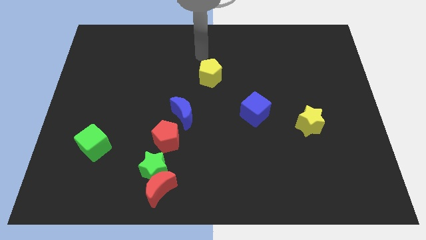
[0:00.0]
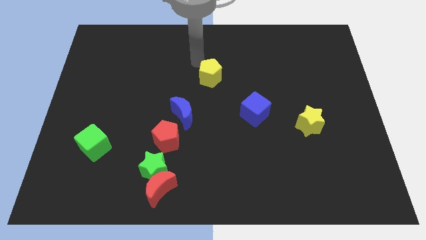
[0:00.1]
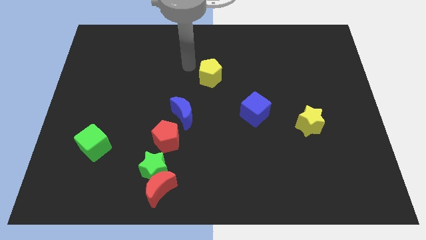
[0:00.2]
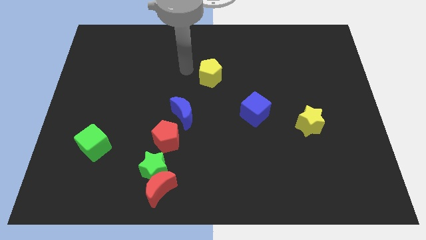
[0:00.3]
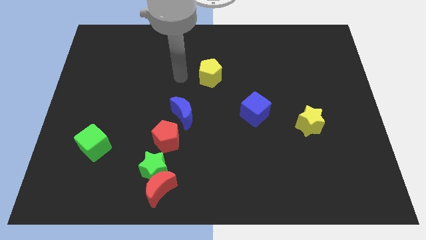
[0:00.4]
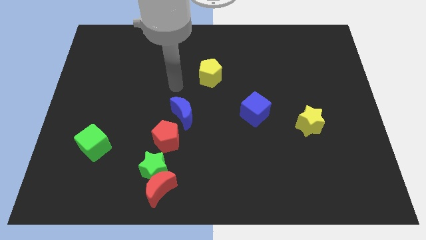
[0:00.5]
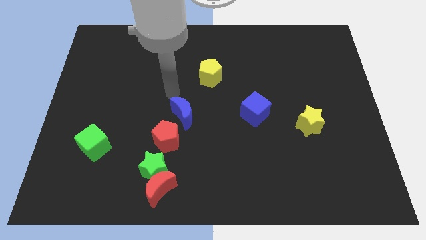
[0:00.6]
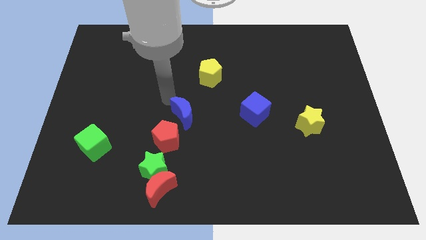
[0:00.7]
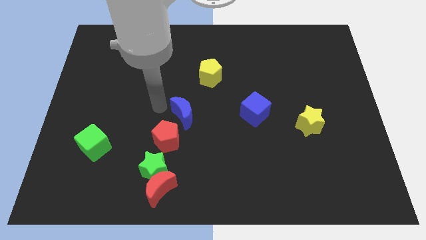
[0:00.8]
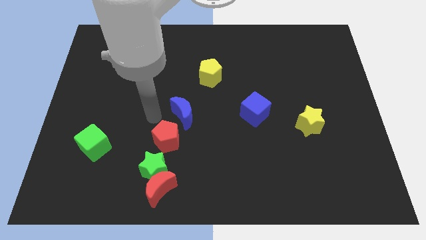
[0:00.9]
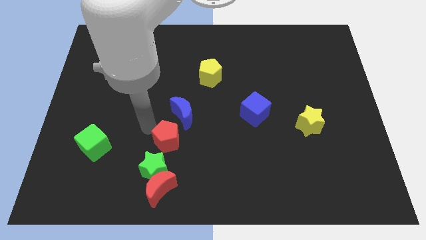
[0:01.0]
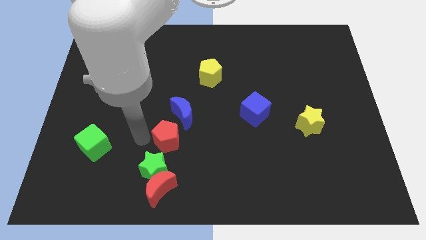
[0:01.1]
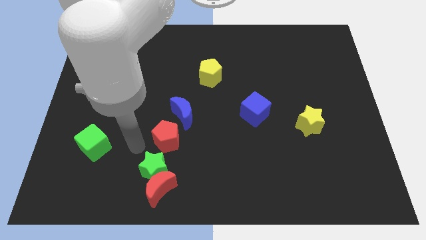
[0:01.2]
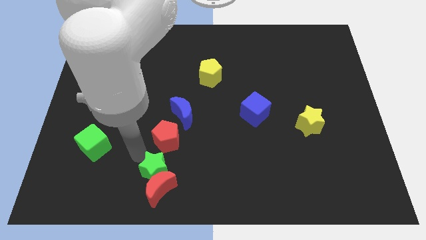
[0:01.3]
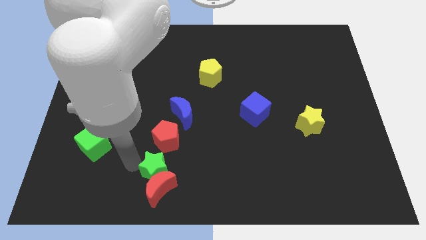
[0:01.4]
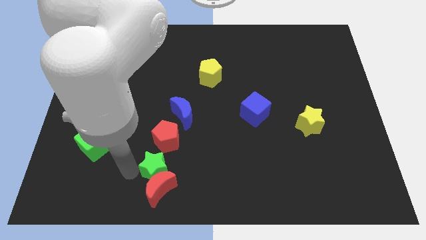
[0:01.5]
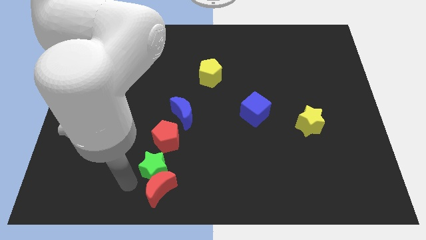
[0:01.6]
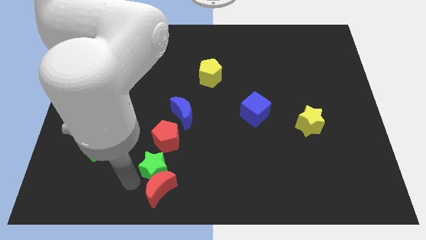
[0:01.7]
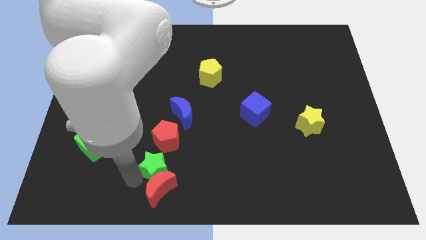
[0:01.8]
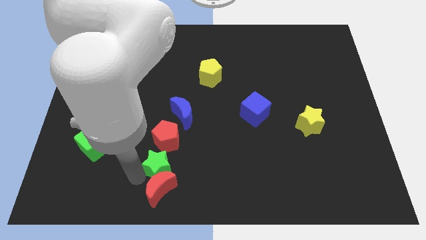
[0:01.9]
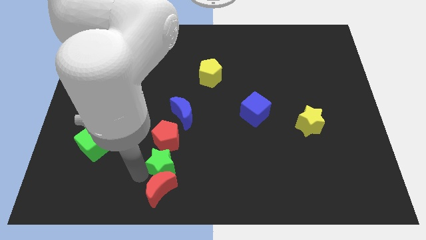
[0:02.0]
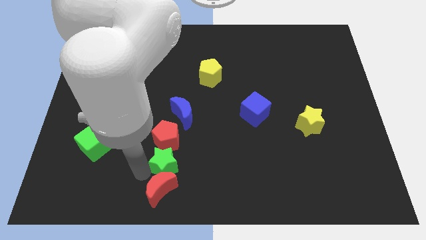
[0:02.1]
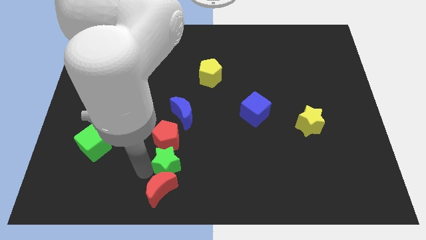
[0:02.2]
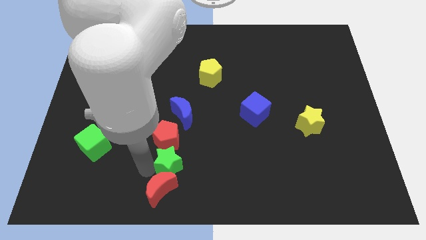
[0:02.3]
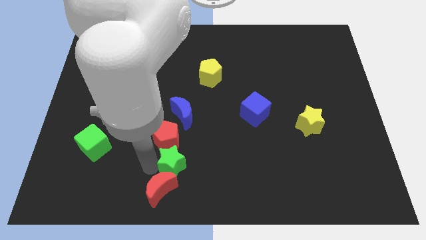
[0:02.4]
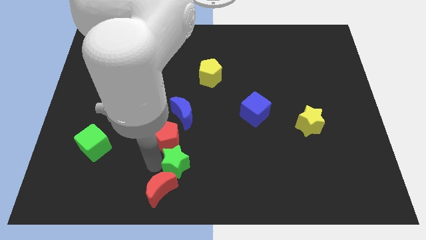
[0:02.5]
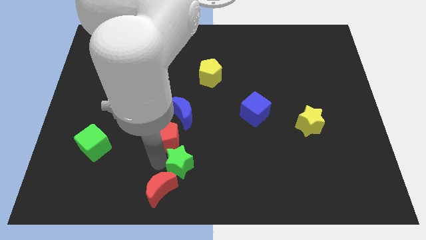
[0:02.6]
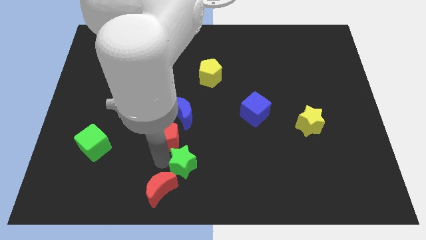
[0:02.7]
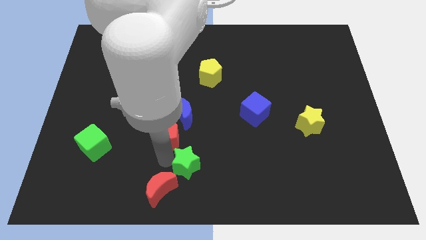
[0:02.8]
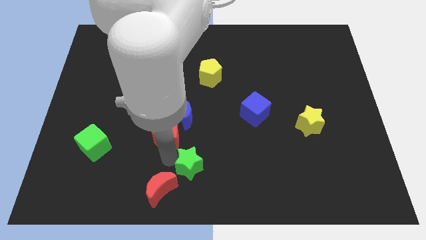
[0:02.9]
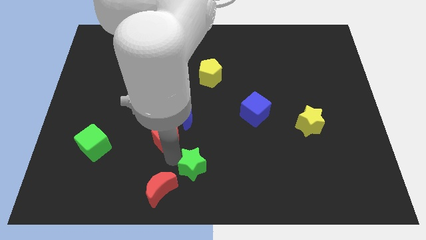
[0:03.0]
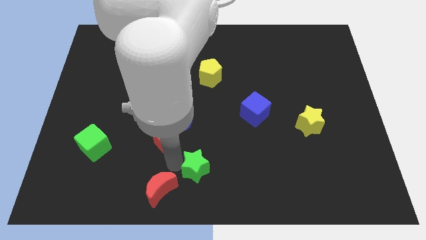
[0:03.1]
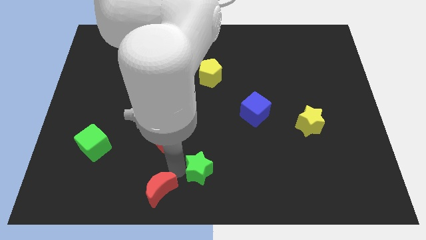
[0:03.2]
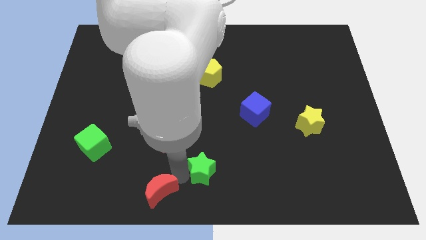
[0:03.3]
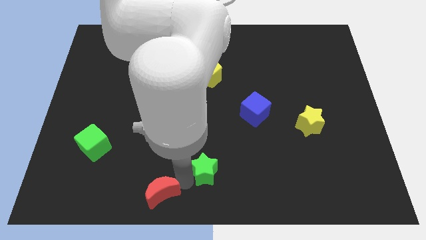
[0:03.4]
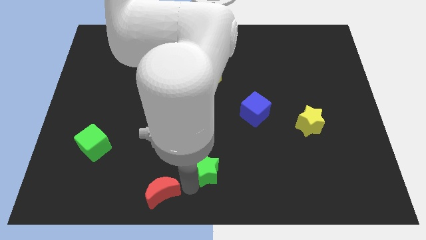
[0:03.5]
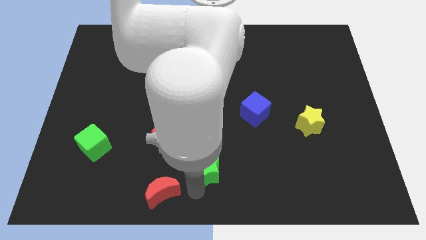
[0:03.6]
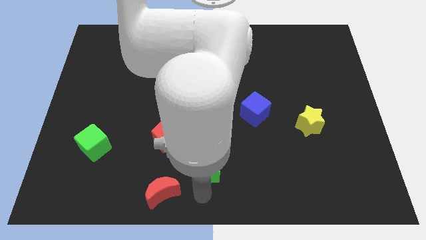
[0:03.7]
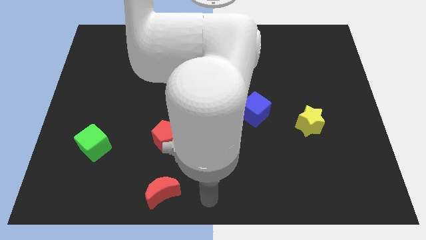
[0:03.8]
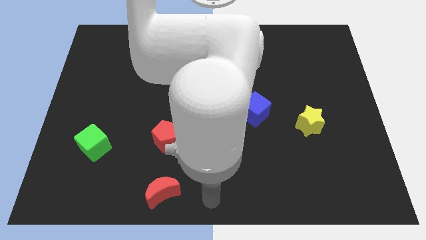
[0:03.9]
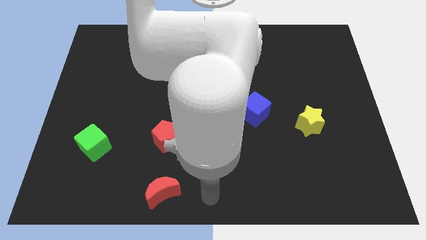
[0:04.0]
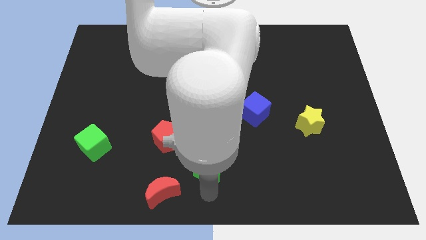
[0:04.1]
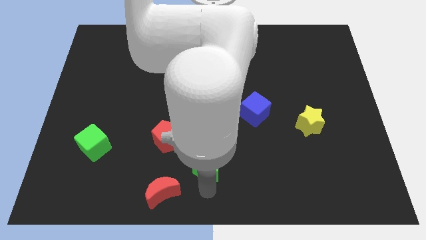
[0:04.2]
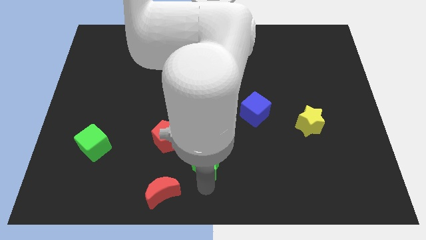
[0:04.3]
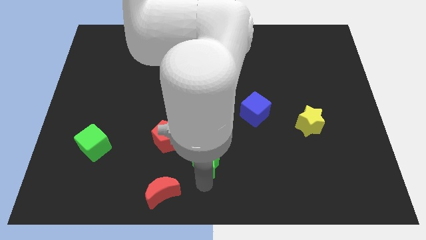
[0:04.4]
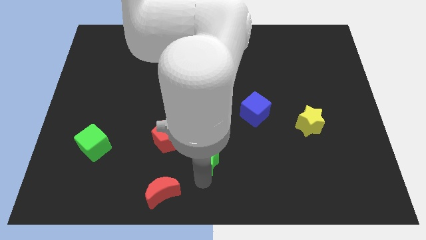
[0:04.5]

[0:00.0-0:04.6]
slide the green star a bit diagonally up and to the right

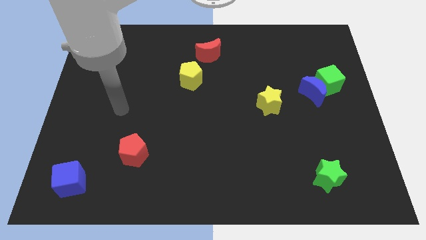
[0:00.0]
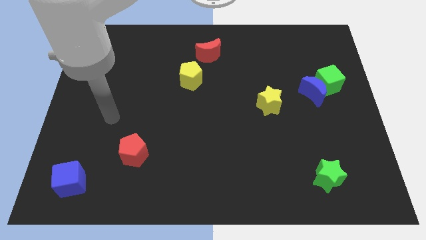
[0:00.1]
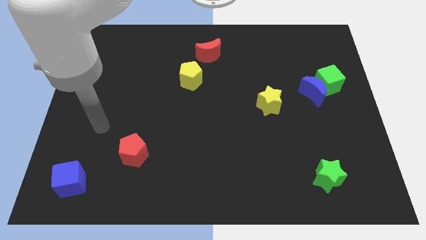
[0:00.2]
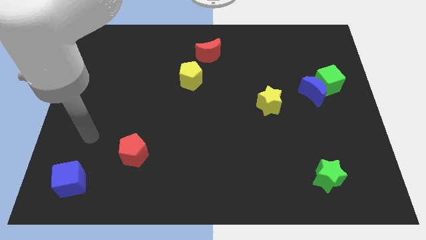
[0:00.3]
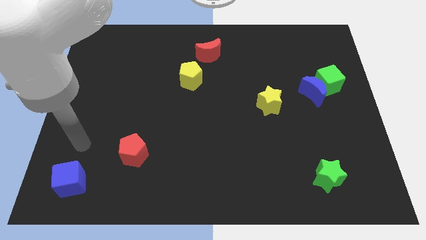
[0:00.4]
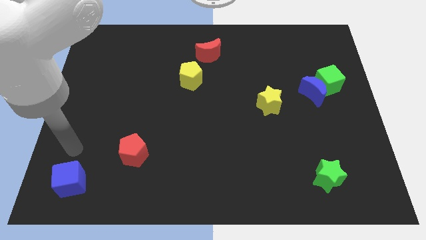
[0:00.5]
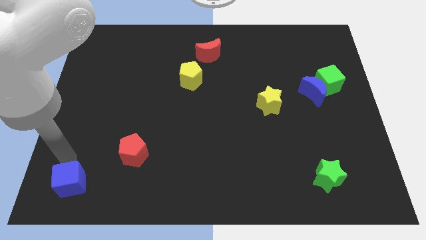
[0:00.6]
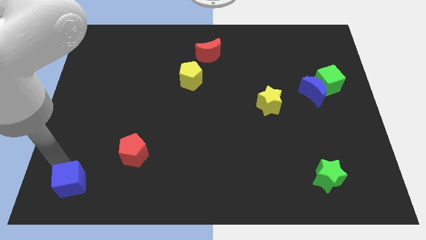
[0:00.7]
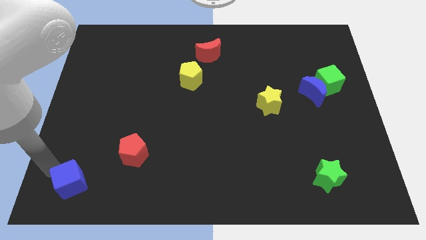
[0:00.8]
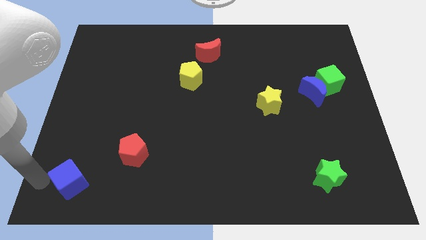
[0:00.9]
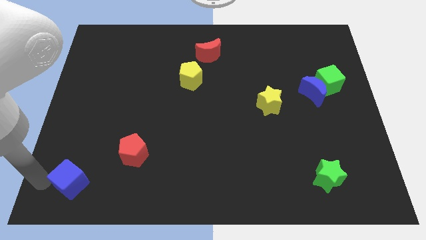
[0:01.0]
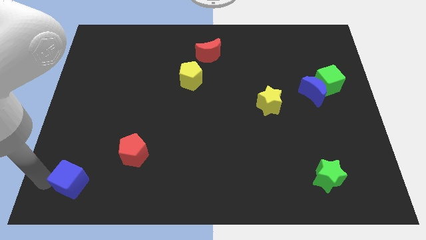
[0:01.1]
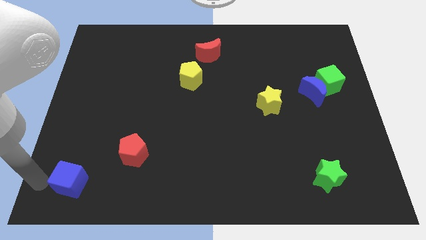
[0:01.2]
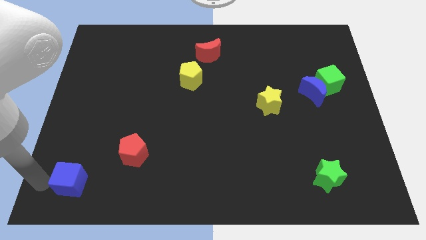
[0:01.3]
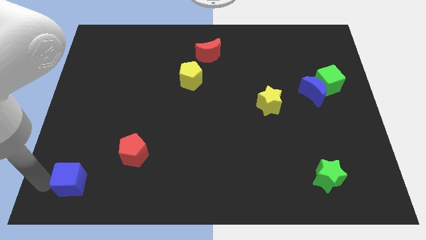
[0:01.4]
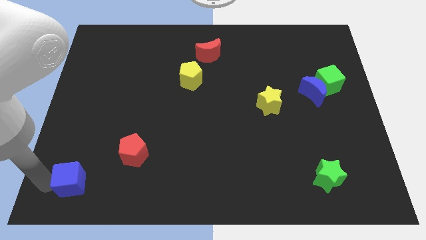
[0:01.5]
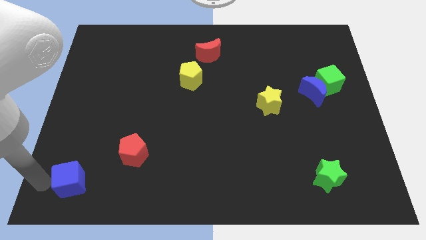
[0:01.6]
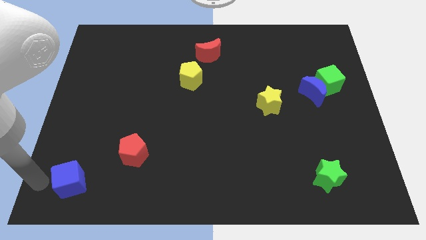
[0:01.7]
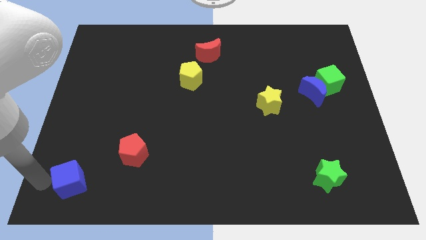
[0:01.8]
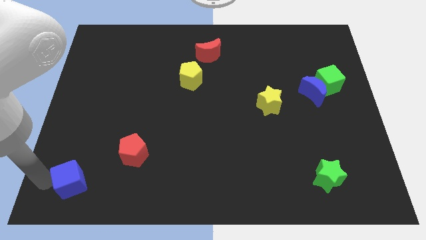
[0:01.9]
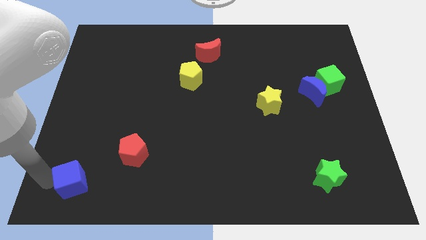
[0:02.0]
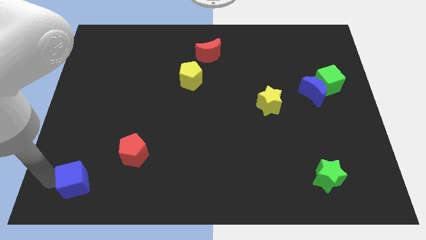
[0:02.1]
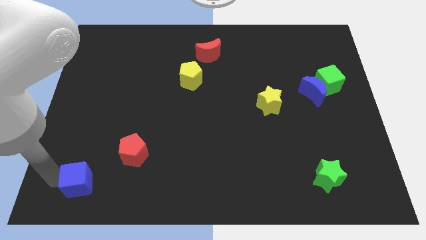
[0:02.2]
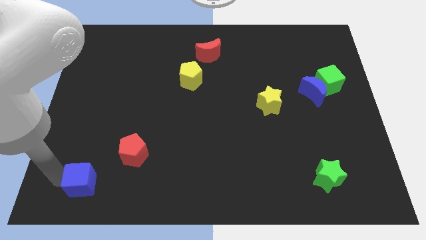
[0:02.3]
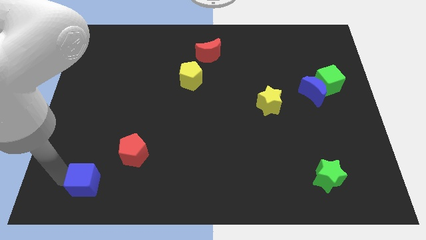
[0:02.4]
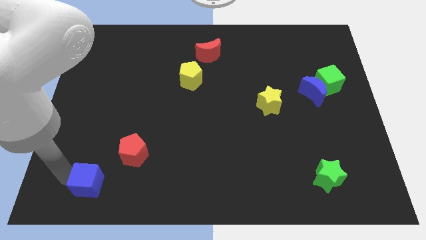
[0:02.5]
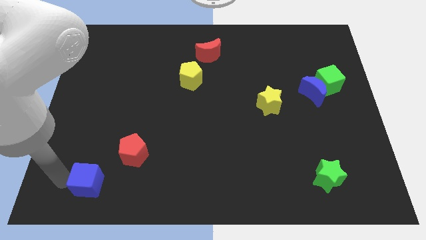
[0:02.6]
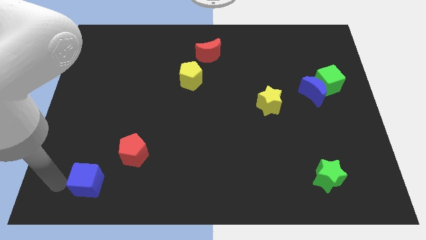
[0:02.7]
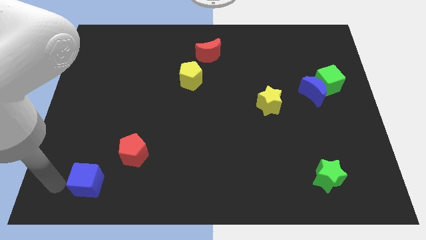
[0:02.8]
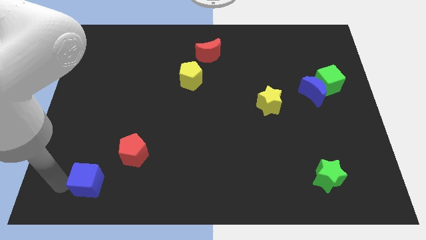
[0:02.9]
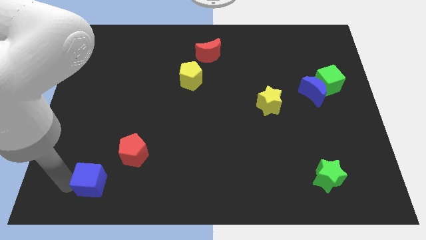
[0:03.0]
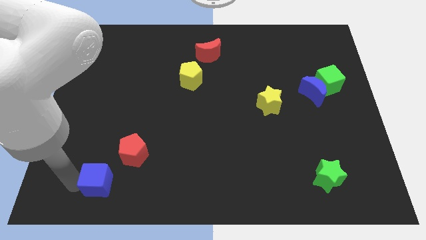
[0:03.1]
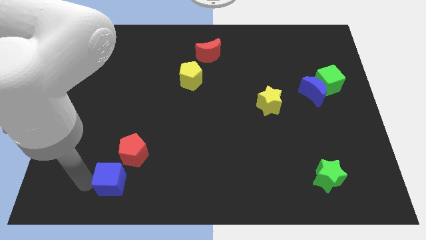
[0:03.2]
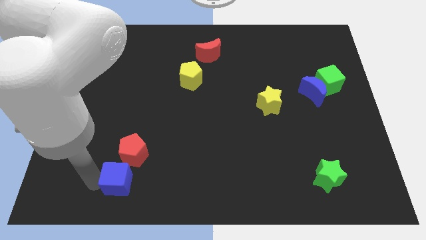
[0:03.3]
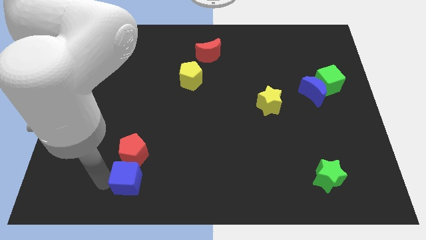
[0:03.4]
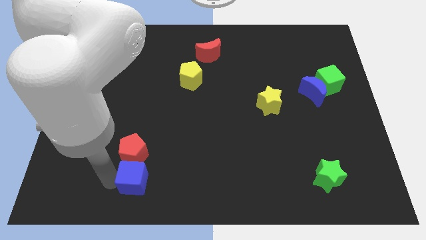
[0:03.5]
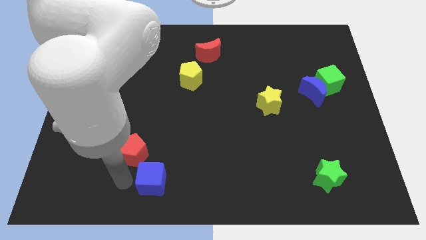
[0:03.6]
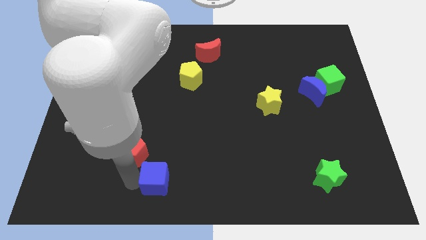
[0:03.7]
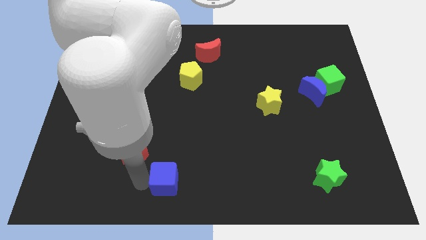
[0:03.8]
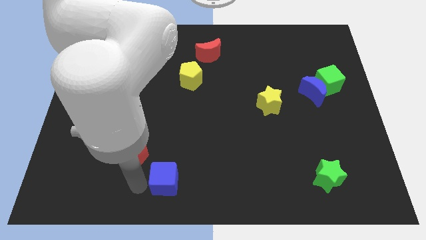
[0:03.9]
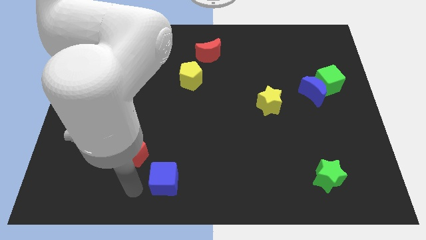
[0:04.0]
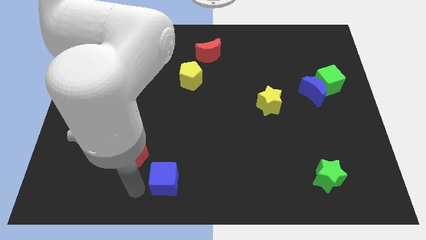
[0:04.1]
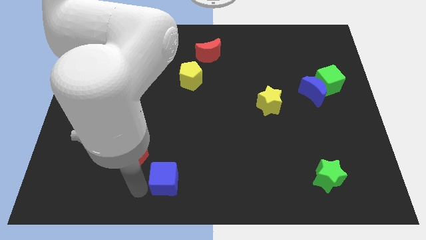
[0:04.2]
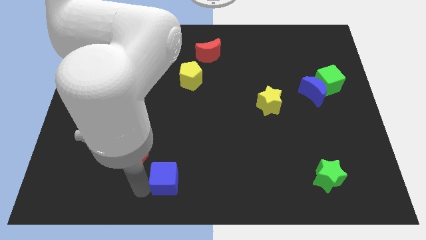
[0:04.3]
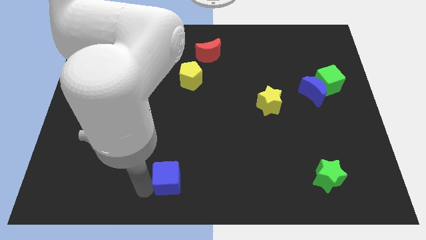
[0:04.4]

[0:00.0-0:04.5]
slide the blue cube to the right
